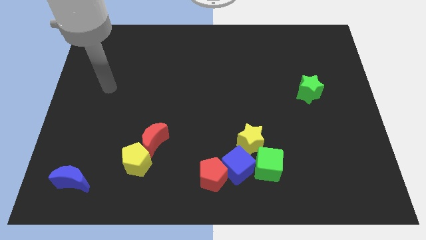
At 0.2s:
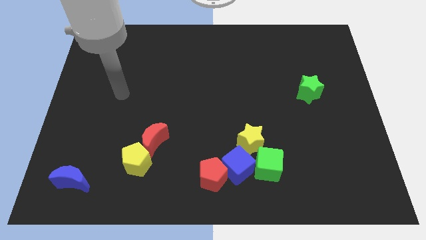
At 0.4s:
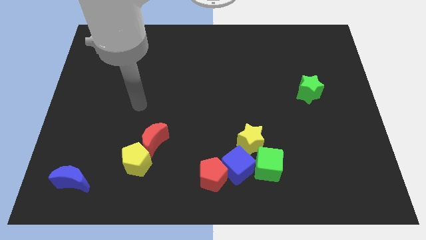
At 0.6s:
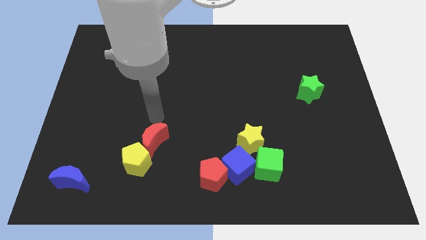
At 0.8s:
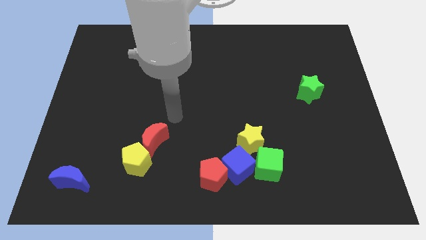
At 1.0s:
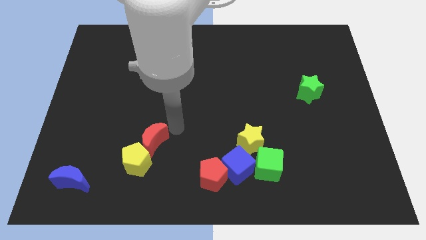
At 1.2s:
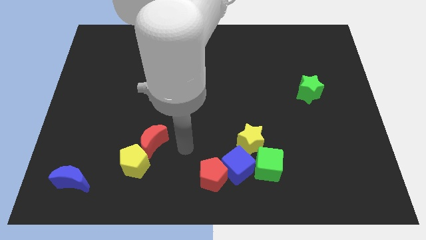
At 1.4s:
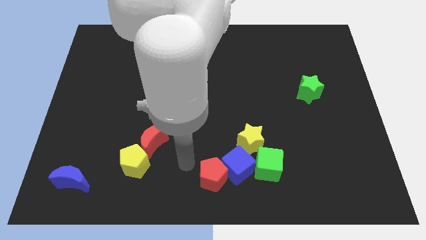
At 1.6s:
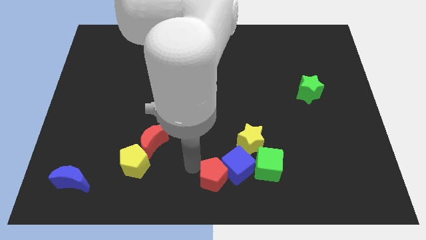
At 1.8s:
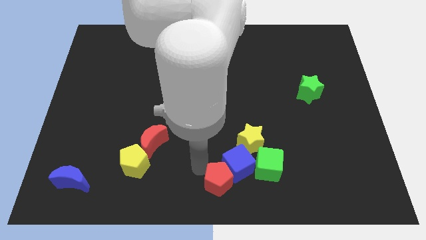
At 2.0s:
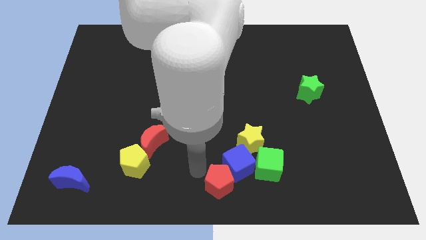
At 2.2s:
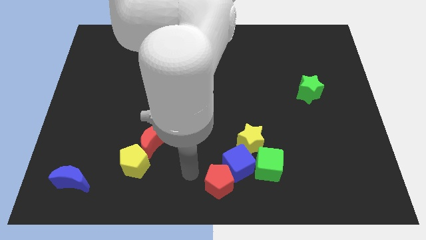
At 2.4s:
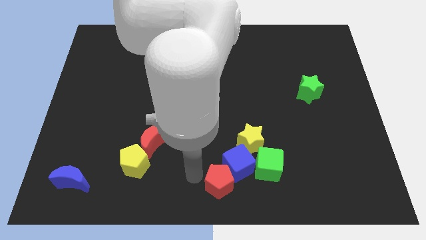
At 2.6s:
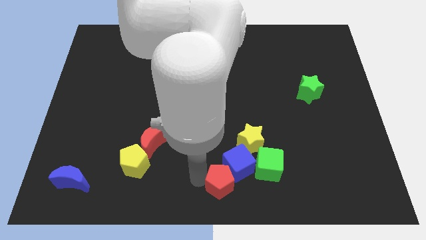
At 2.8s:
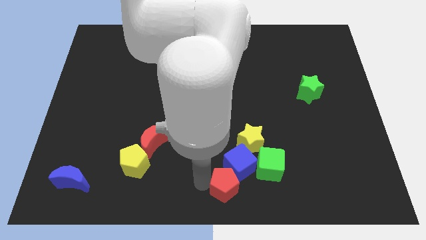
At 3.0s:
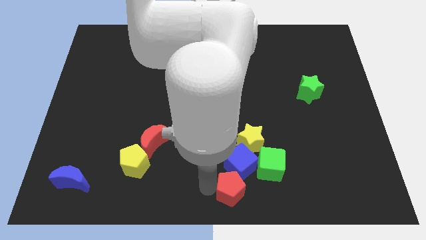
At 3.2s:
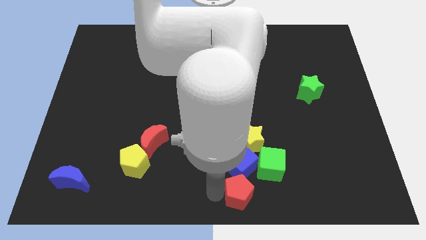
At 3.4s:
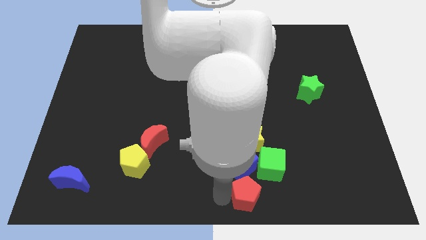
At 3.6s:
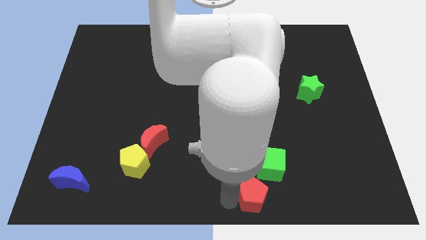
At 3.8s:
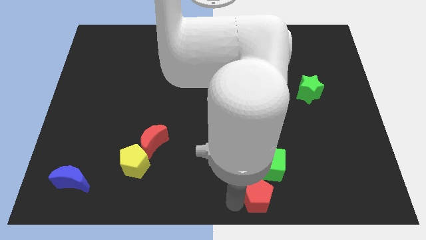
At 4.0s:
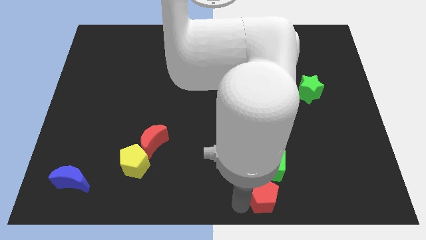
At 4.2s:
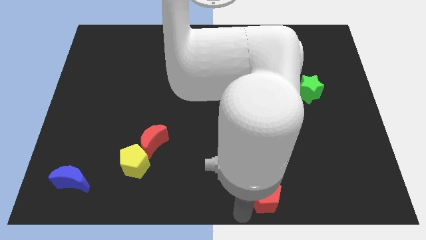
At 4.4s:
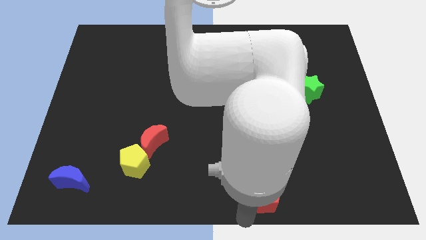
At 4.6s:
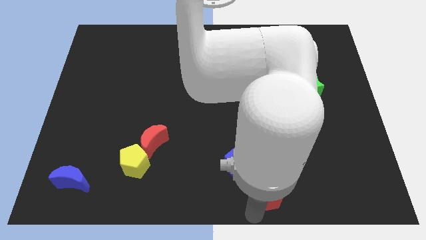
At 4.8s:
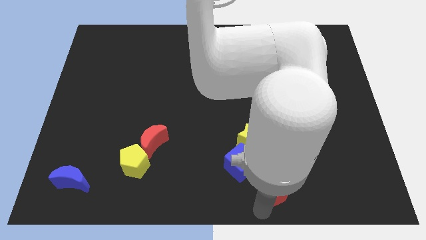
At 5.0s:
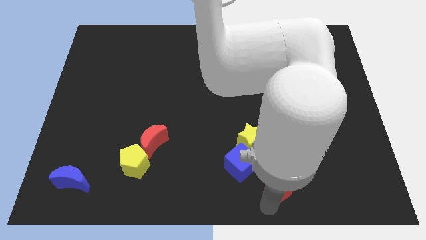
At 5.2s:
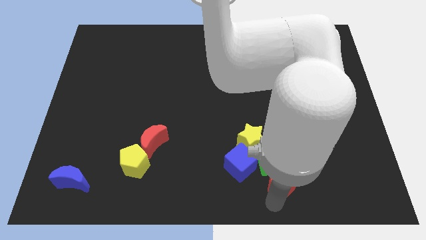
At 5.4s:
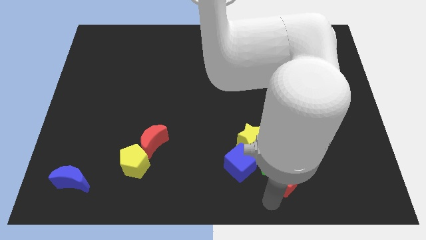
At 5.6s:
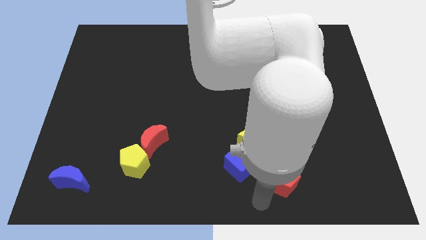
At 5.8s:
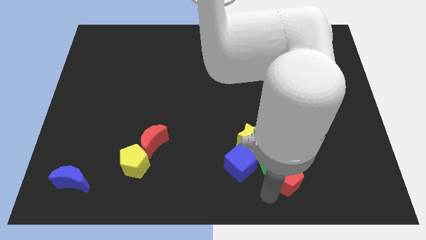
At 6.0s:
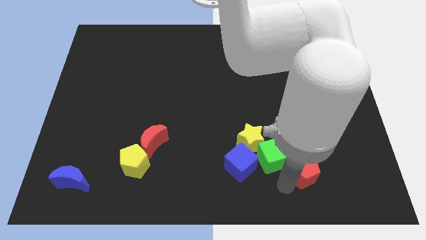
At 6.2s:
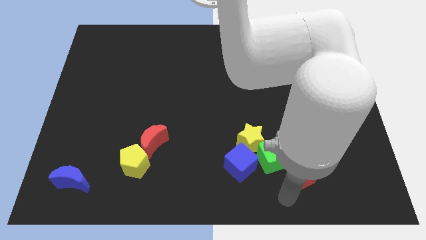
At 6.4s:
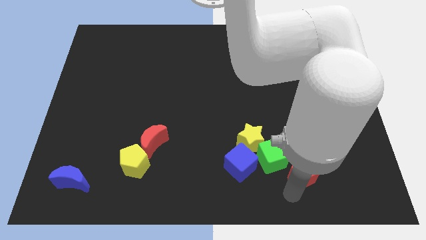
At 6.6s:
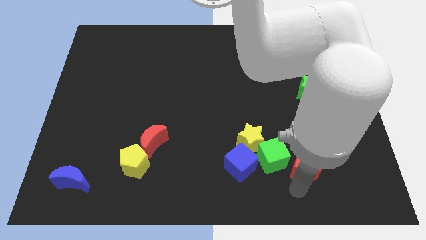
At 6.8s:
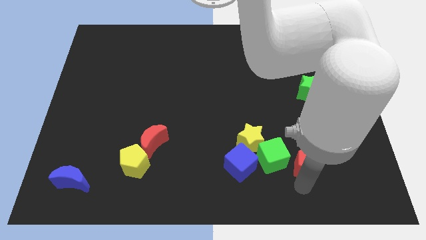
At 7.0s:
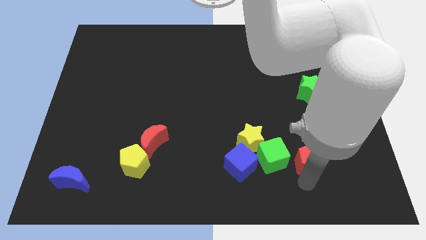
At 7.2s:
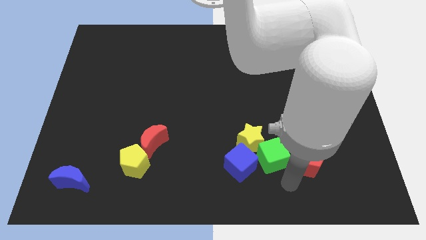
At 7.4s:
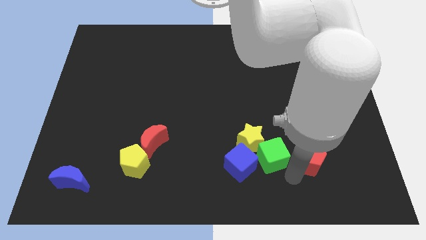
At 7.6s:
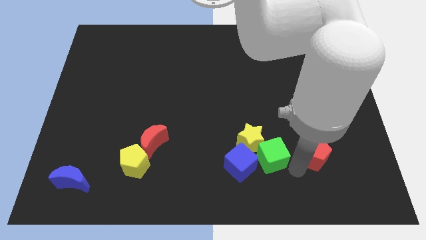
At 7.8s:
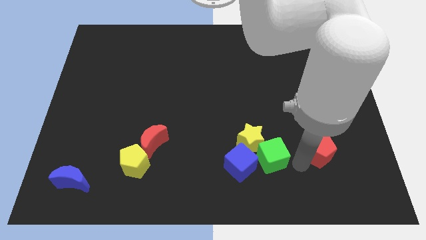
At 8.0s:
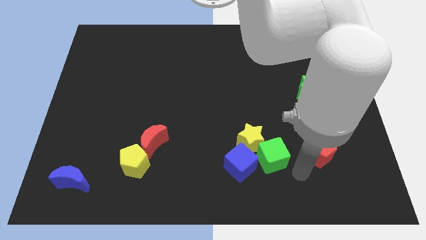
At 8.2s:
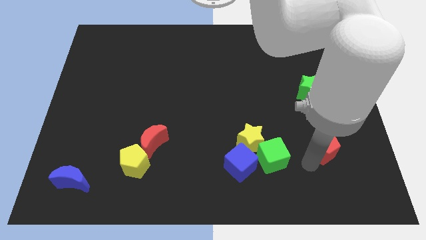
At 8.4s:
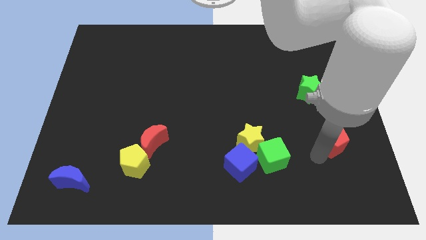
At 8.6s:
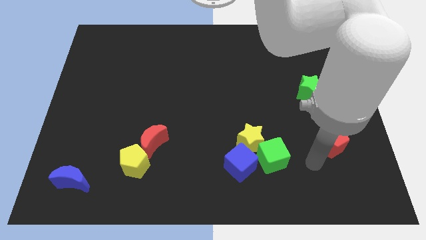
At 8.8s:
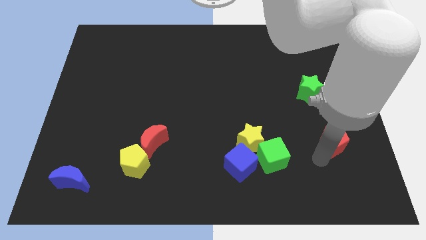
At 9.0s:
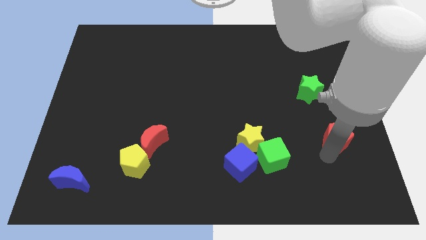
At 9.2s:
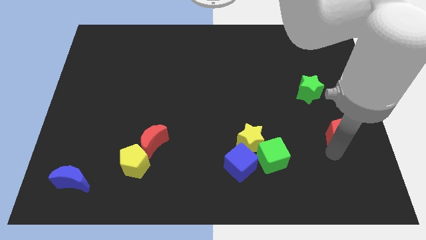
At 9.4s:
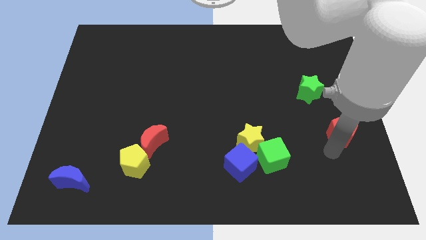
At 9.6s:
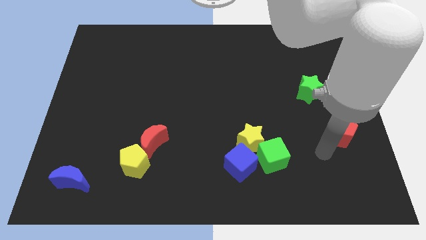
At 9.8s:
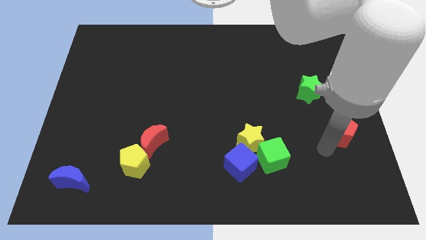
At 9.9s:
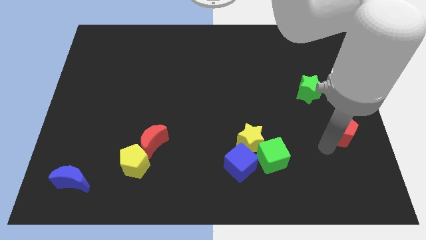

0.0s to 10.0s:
slide the red pentagon to the right side of the board
